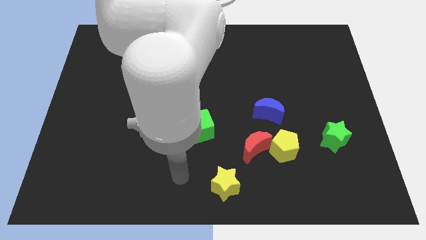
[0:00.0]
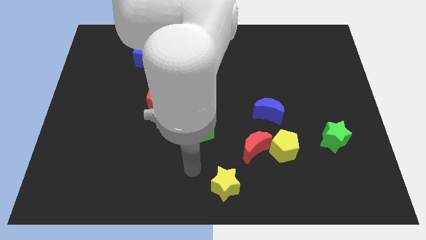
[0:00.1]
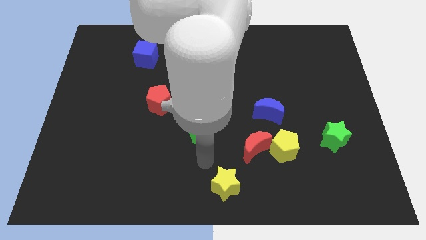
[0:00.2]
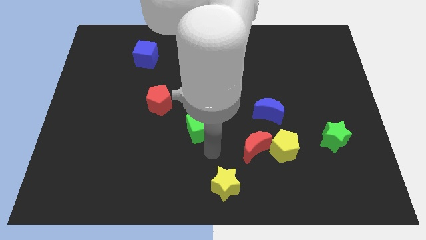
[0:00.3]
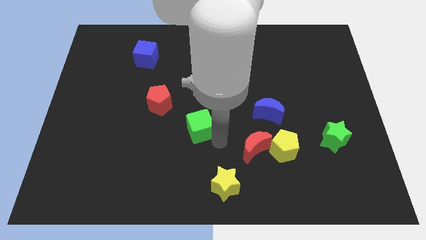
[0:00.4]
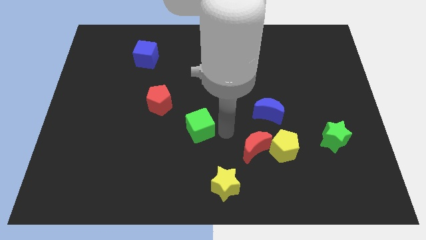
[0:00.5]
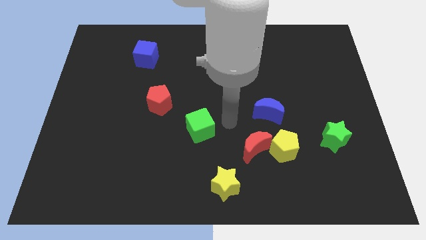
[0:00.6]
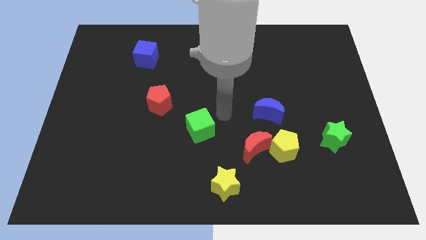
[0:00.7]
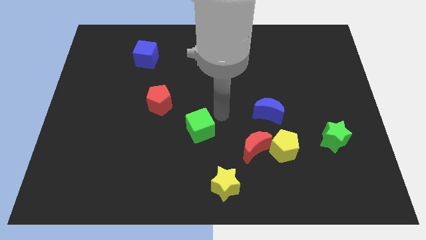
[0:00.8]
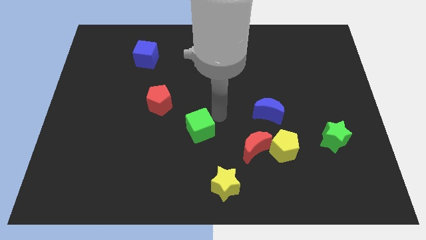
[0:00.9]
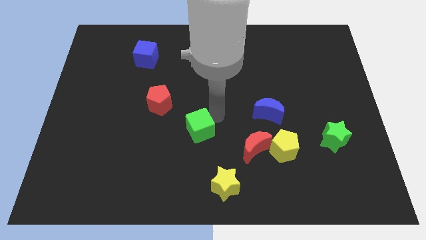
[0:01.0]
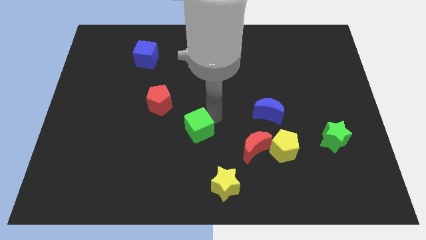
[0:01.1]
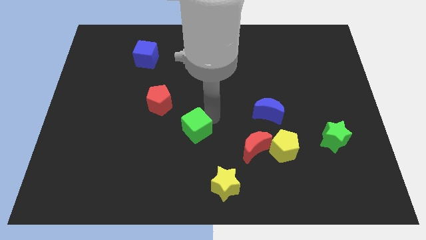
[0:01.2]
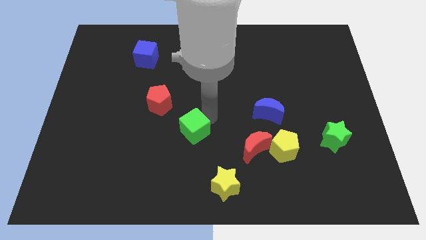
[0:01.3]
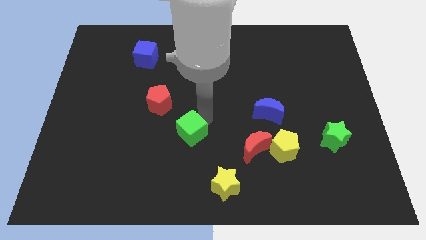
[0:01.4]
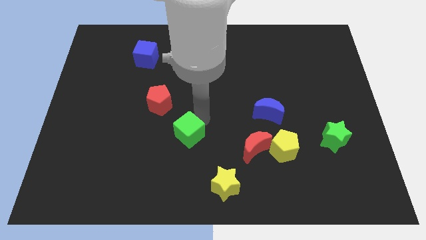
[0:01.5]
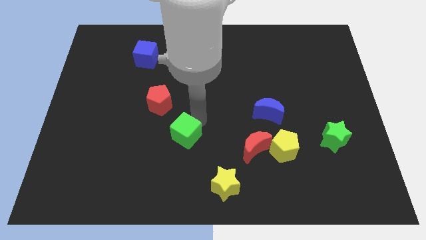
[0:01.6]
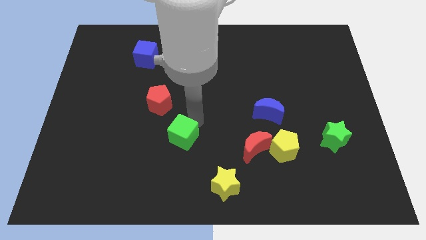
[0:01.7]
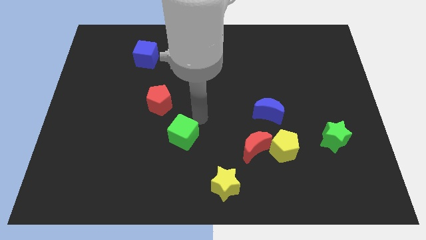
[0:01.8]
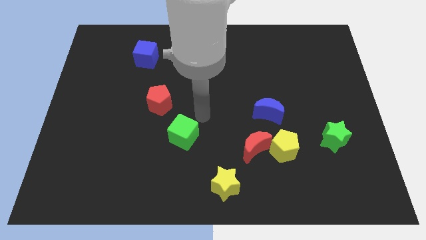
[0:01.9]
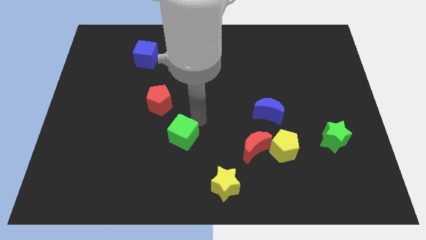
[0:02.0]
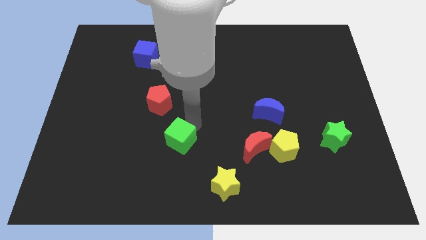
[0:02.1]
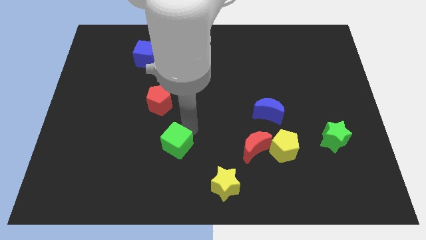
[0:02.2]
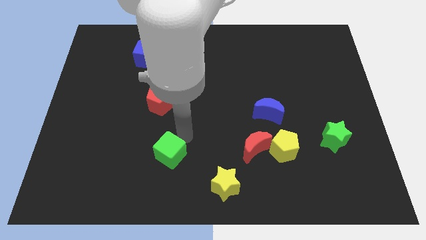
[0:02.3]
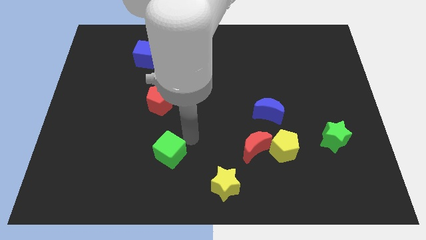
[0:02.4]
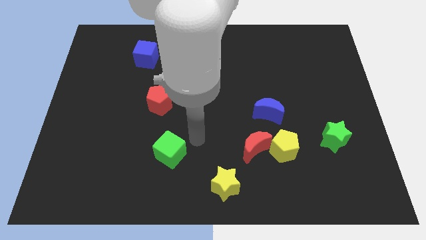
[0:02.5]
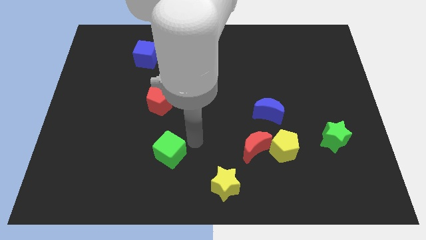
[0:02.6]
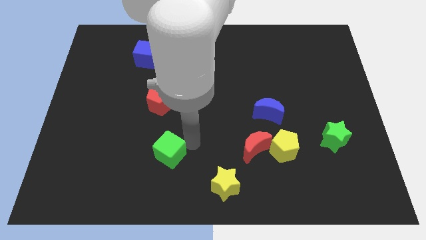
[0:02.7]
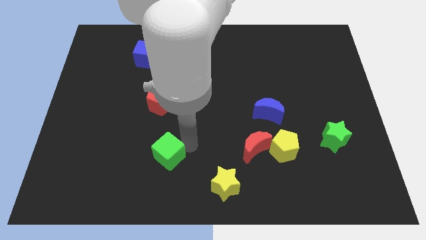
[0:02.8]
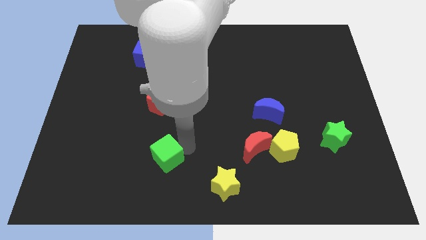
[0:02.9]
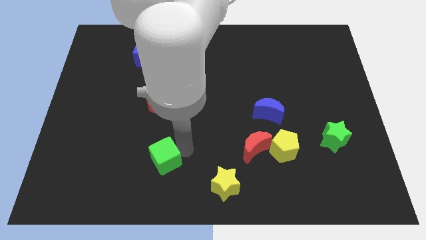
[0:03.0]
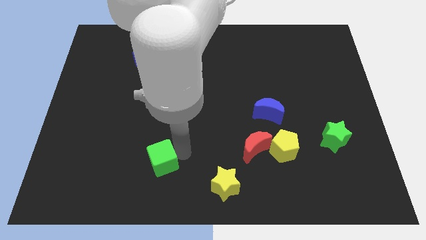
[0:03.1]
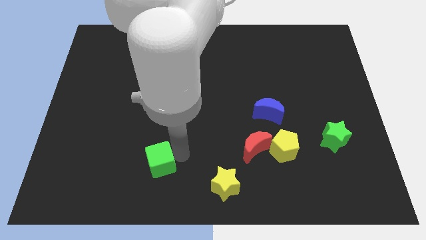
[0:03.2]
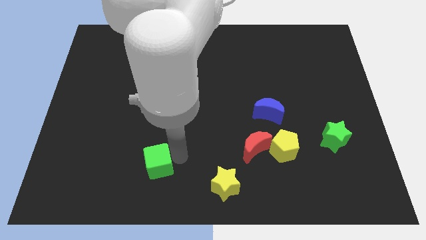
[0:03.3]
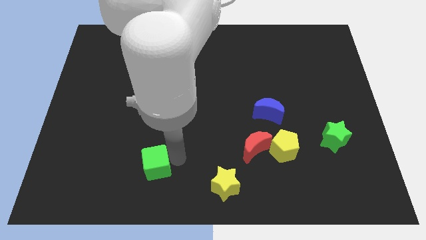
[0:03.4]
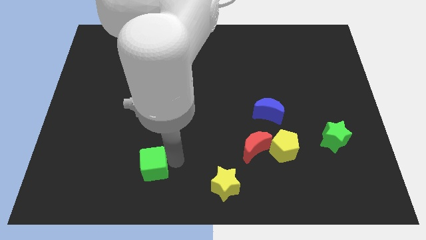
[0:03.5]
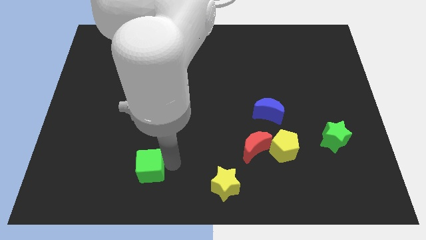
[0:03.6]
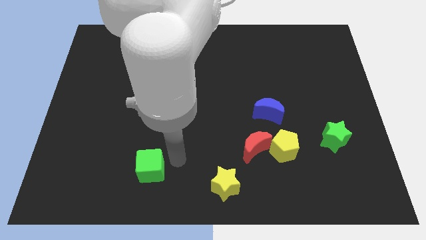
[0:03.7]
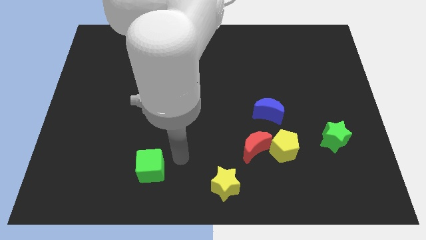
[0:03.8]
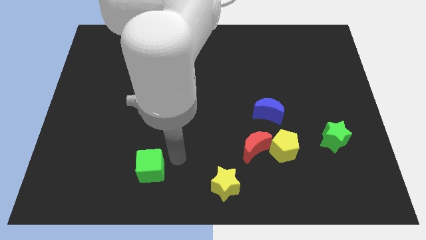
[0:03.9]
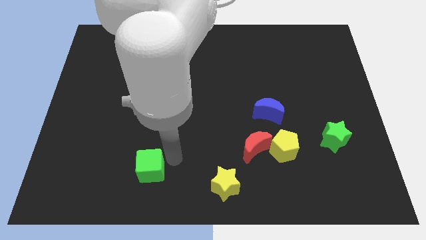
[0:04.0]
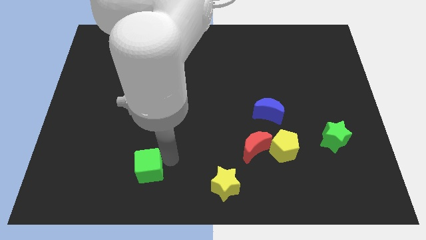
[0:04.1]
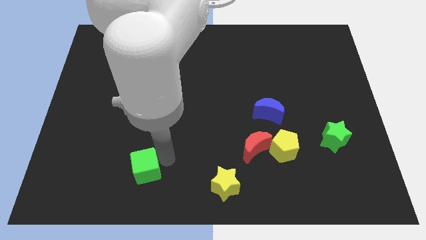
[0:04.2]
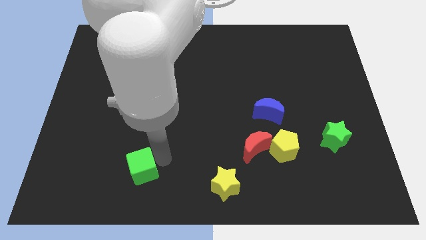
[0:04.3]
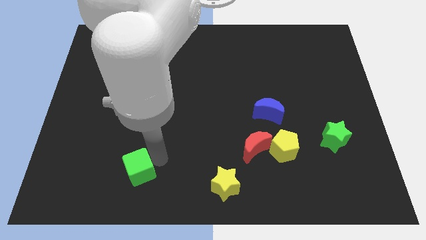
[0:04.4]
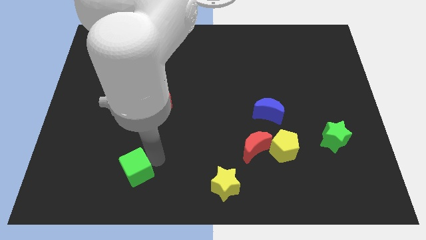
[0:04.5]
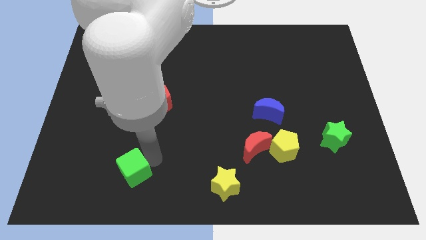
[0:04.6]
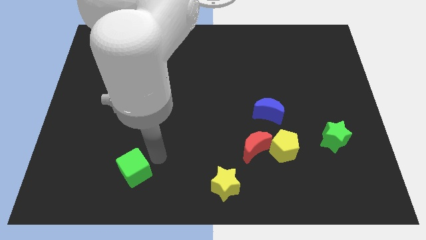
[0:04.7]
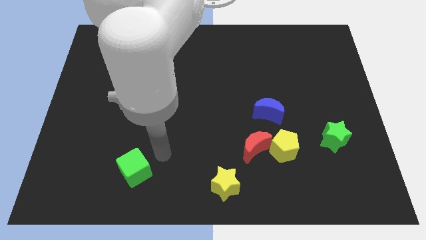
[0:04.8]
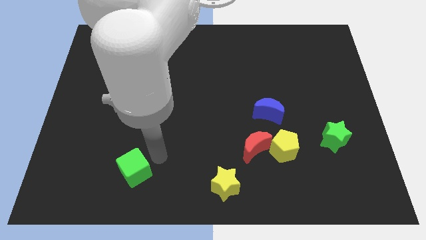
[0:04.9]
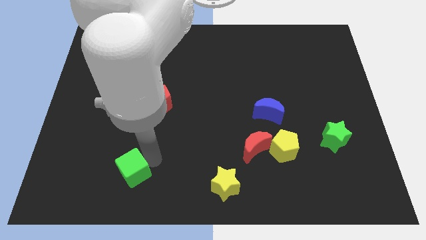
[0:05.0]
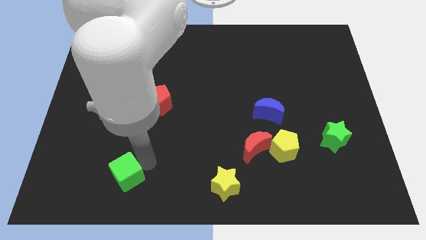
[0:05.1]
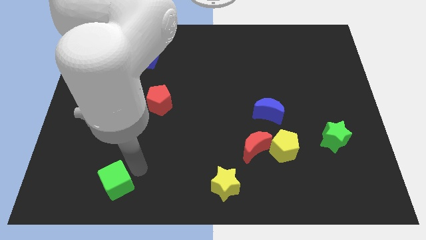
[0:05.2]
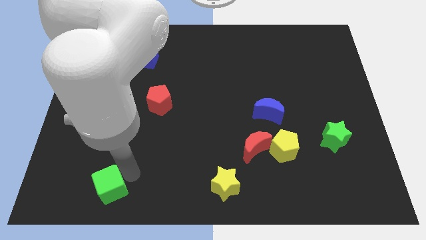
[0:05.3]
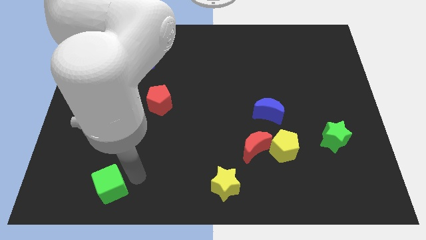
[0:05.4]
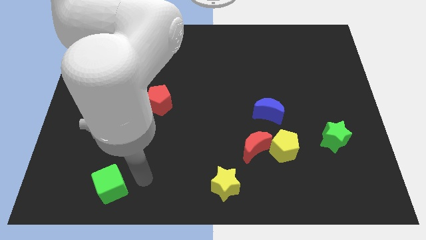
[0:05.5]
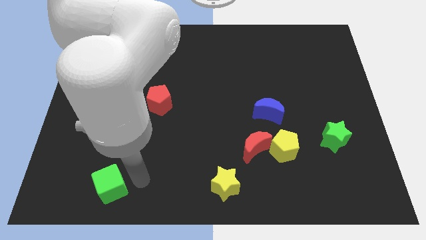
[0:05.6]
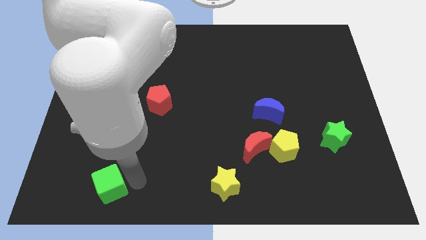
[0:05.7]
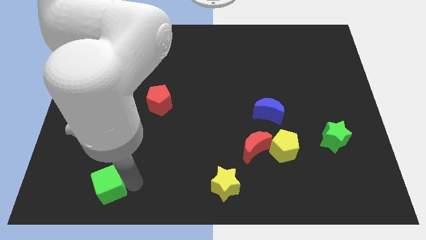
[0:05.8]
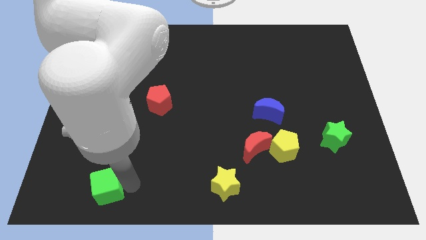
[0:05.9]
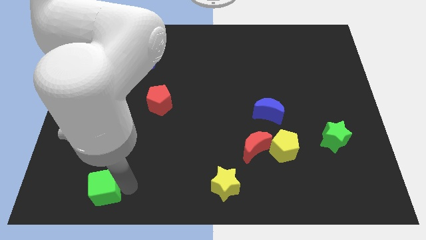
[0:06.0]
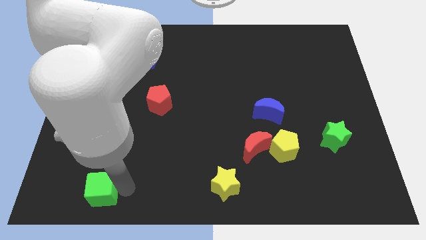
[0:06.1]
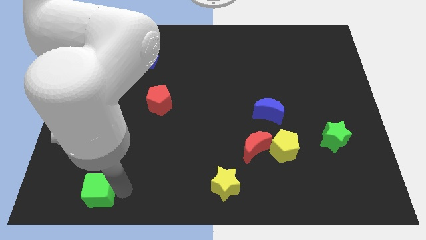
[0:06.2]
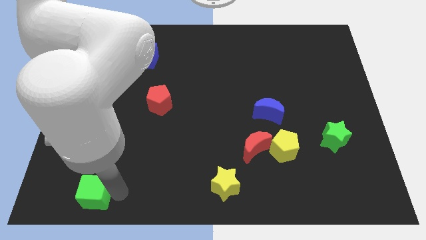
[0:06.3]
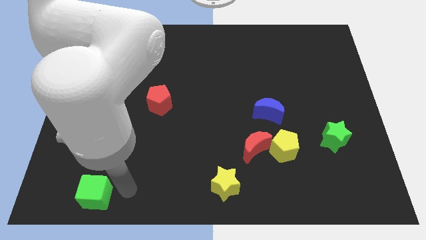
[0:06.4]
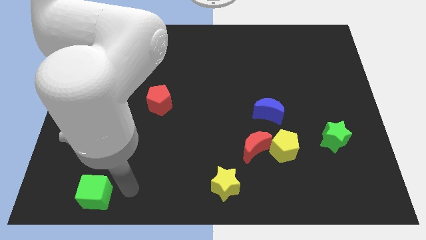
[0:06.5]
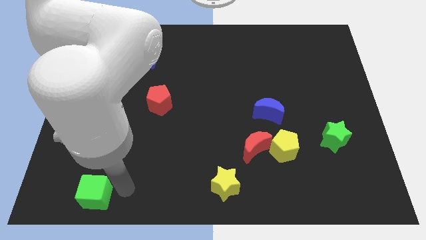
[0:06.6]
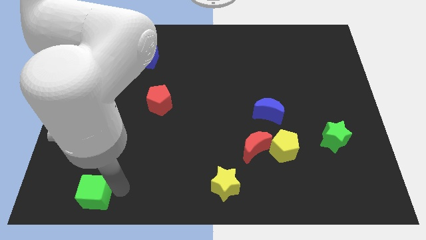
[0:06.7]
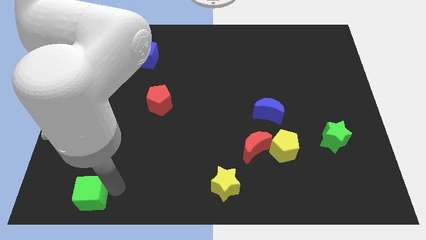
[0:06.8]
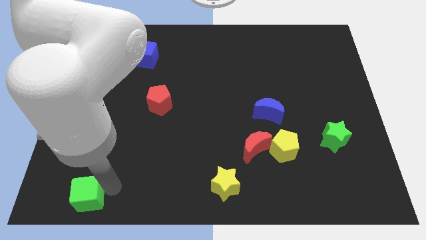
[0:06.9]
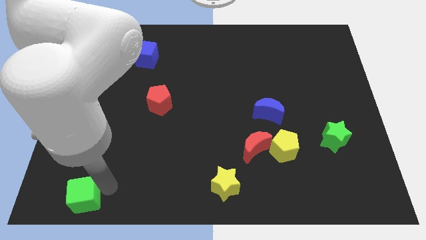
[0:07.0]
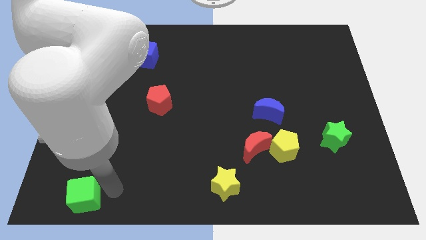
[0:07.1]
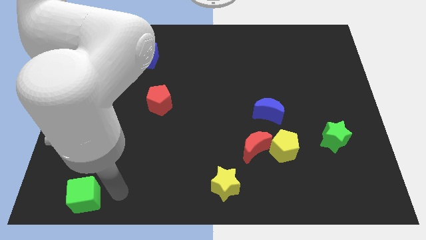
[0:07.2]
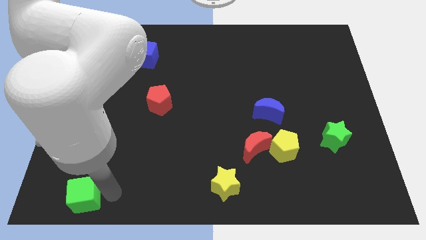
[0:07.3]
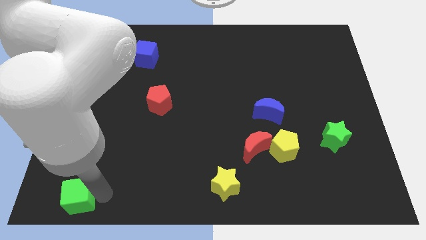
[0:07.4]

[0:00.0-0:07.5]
push the green cube to the lower left corner
